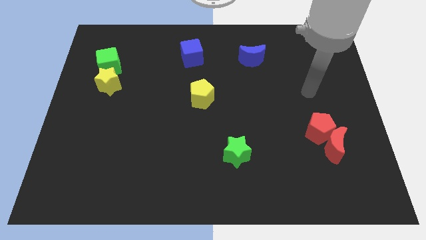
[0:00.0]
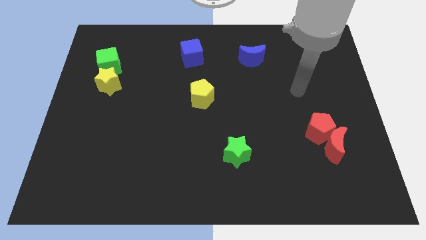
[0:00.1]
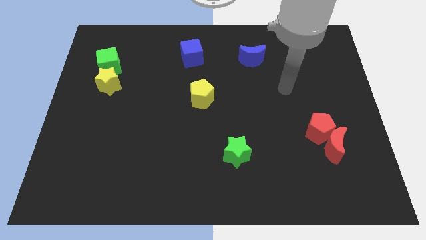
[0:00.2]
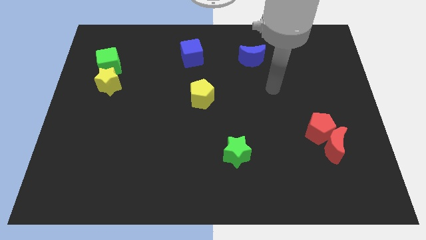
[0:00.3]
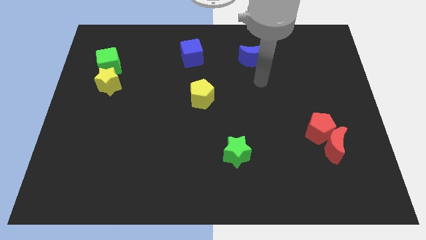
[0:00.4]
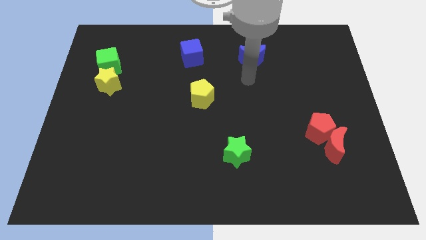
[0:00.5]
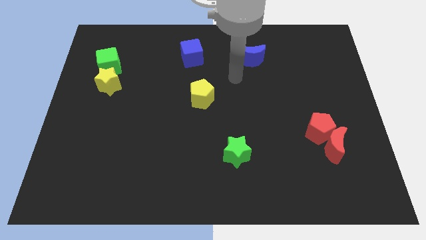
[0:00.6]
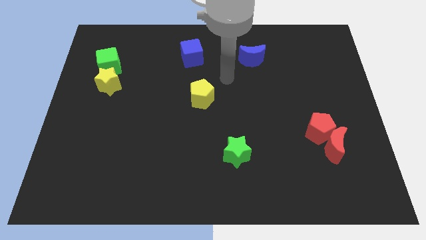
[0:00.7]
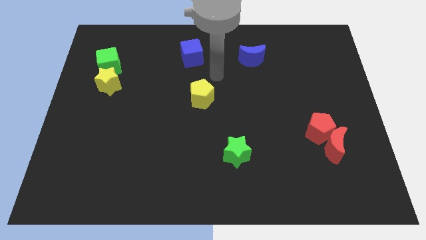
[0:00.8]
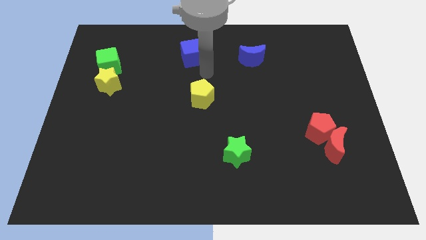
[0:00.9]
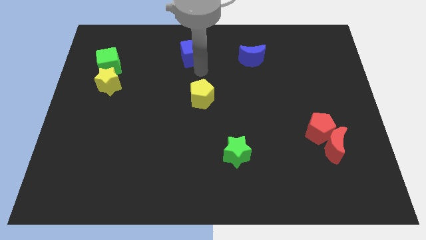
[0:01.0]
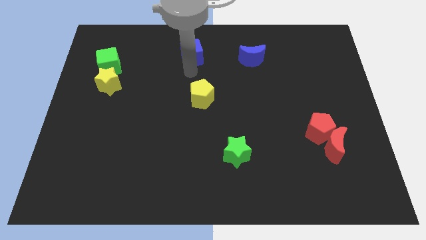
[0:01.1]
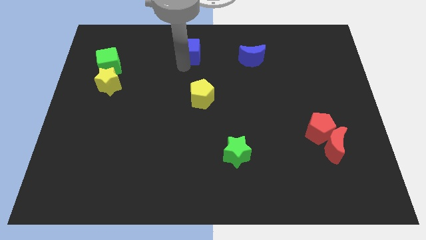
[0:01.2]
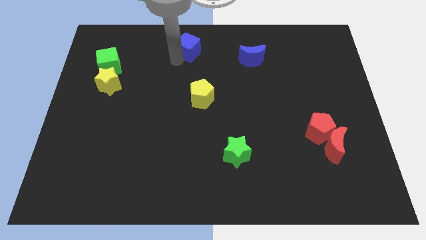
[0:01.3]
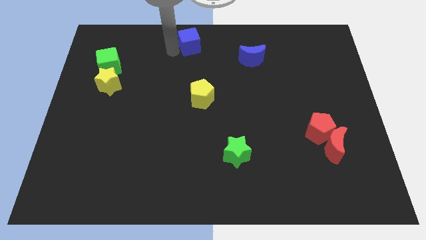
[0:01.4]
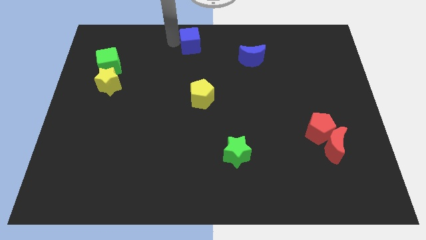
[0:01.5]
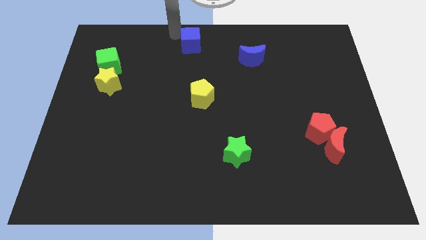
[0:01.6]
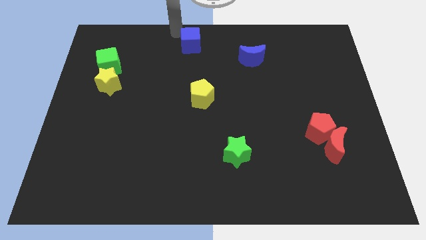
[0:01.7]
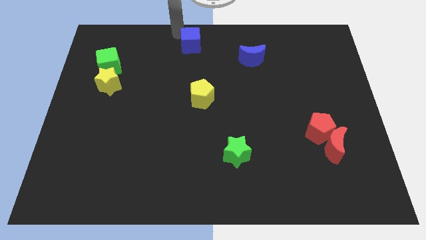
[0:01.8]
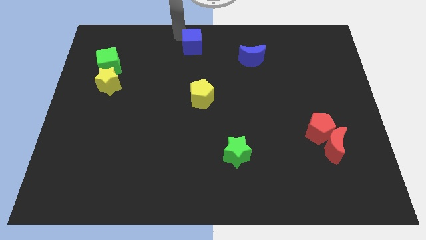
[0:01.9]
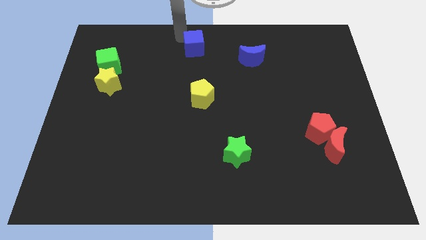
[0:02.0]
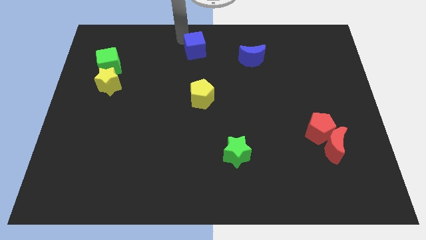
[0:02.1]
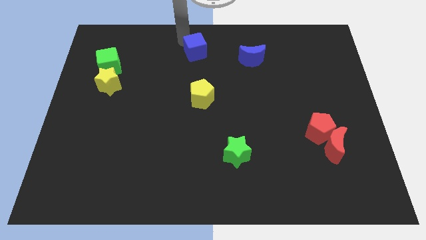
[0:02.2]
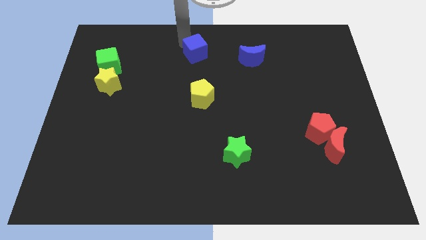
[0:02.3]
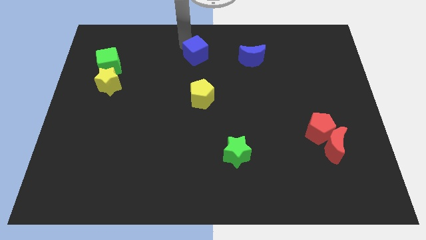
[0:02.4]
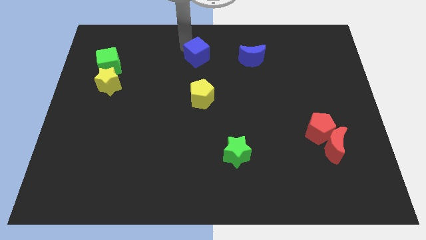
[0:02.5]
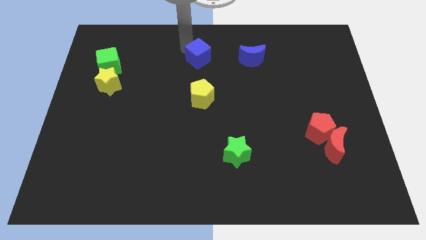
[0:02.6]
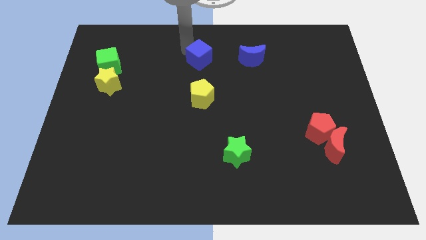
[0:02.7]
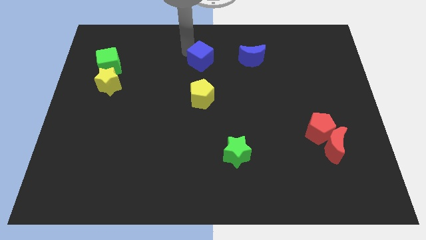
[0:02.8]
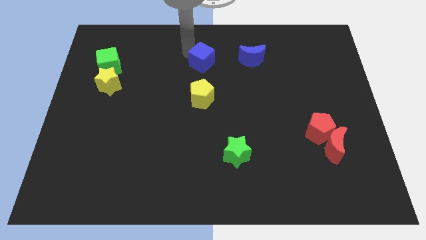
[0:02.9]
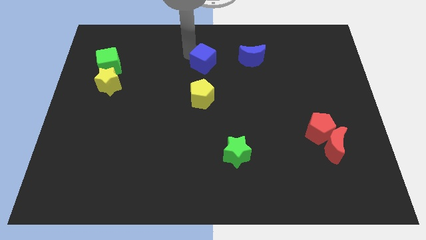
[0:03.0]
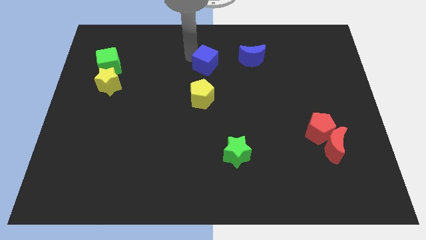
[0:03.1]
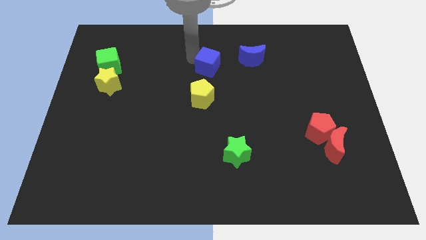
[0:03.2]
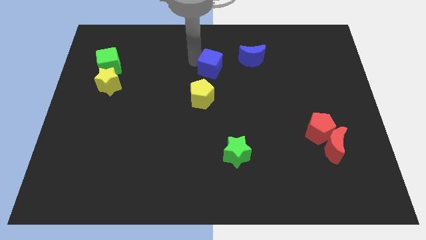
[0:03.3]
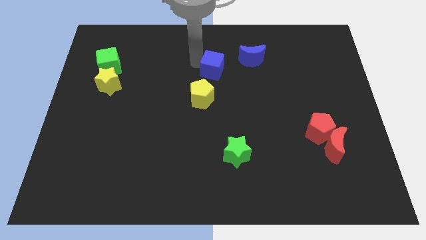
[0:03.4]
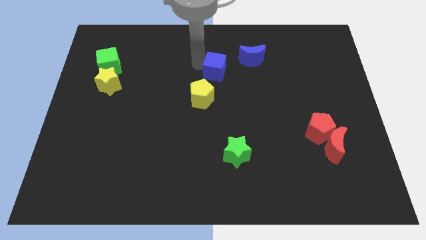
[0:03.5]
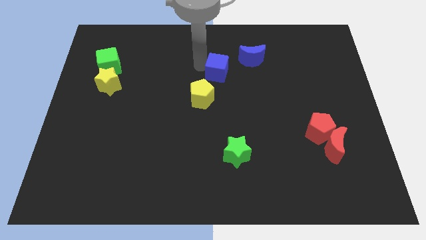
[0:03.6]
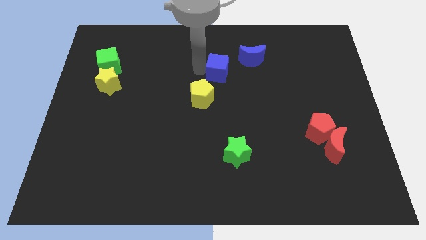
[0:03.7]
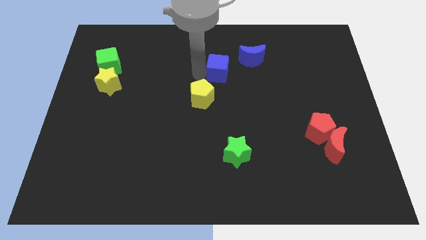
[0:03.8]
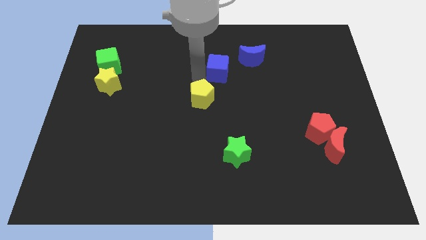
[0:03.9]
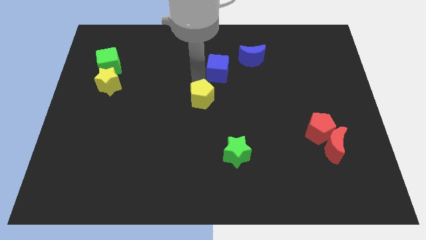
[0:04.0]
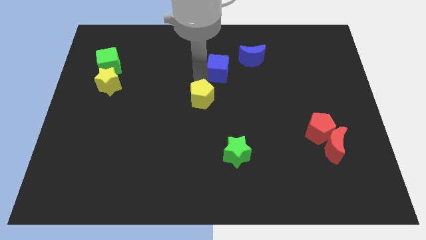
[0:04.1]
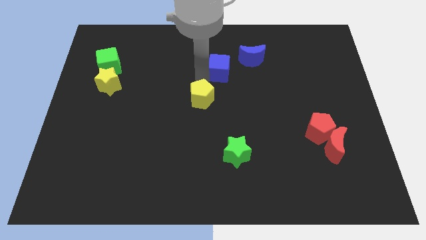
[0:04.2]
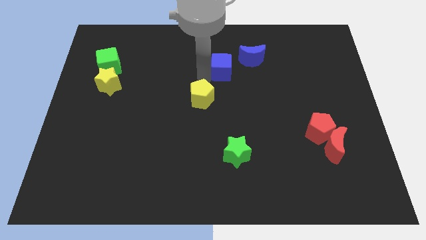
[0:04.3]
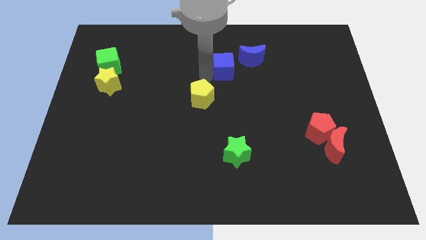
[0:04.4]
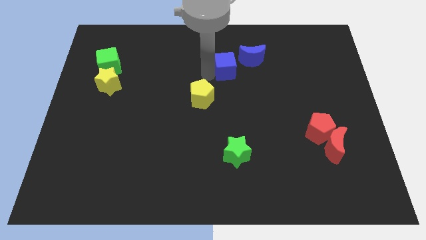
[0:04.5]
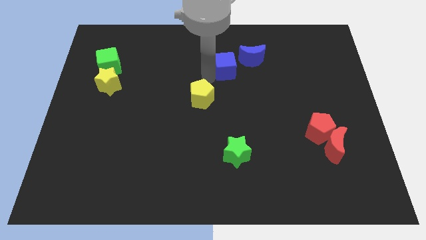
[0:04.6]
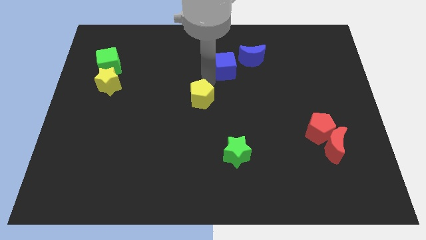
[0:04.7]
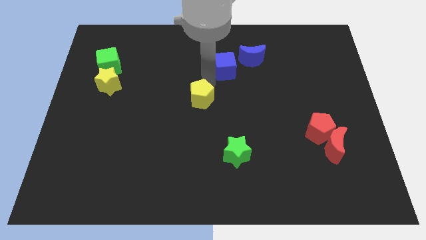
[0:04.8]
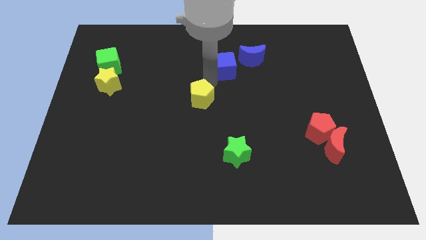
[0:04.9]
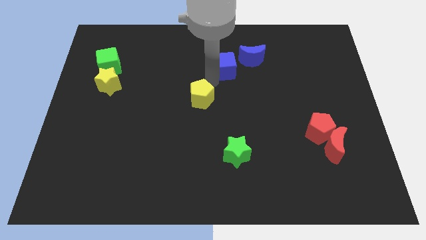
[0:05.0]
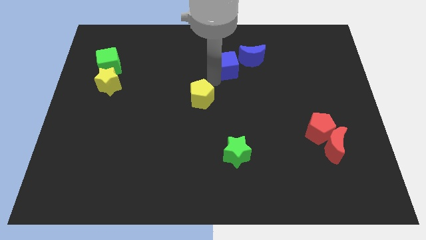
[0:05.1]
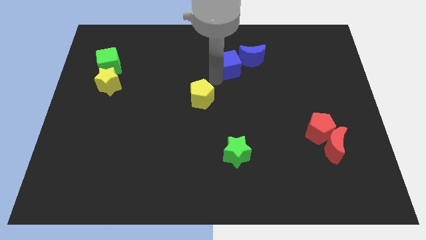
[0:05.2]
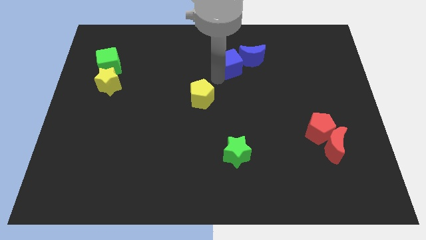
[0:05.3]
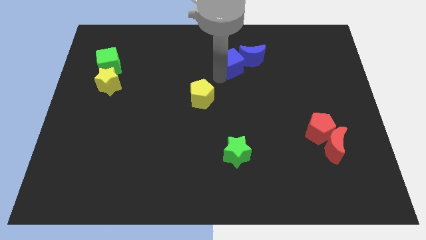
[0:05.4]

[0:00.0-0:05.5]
slide the blue cube next to the blue moon

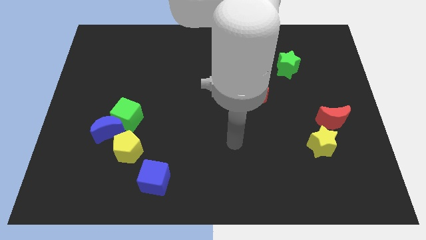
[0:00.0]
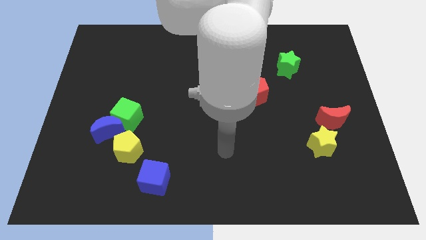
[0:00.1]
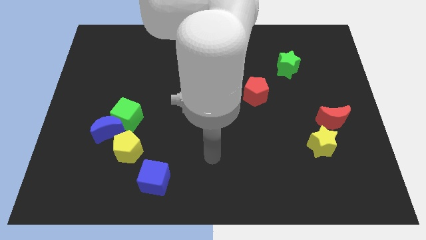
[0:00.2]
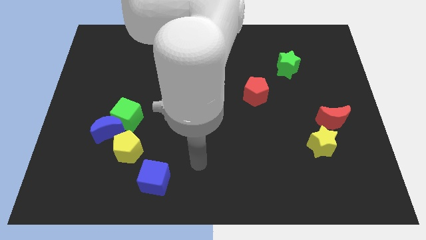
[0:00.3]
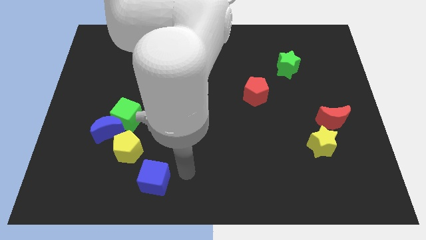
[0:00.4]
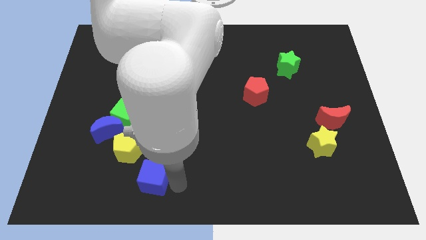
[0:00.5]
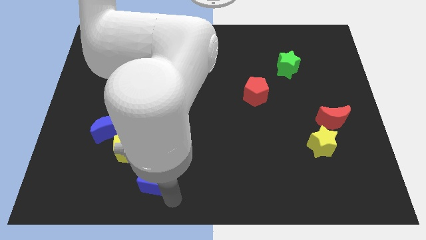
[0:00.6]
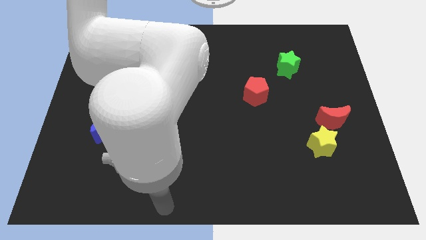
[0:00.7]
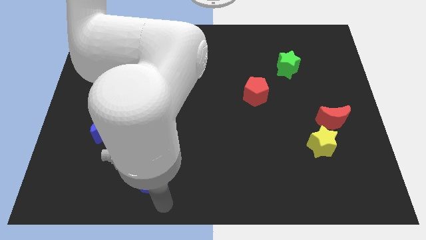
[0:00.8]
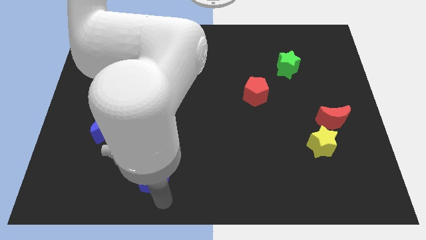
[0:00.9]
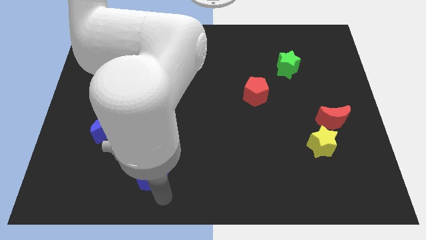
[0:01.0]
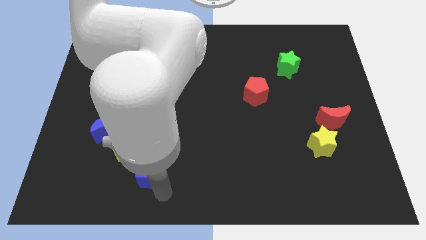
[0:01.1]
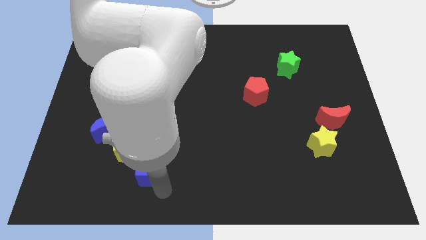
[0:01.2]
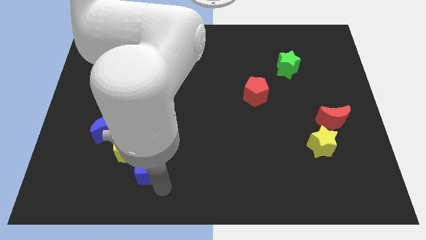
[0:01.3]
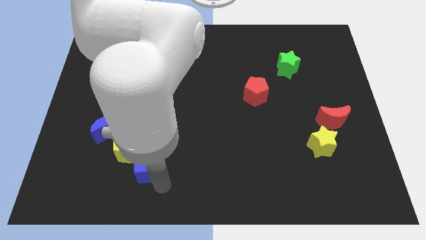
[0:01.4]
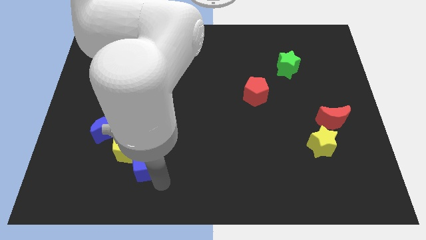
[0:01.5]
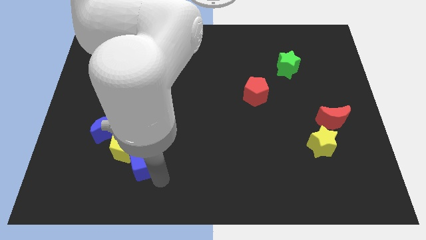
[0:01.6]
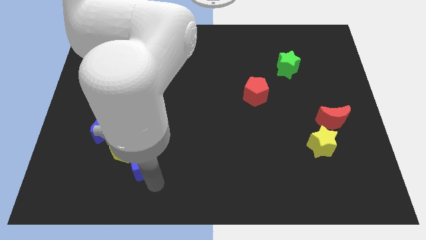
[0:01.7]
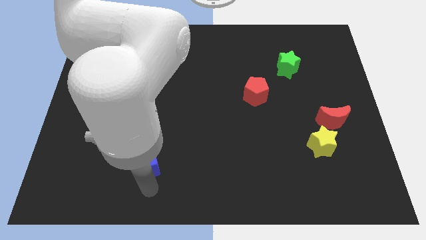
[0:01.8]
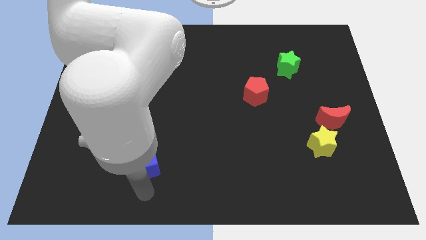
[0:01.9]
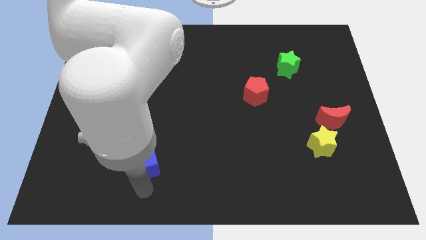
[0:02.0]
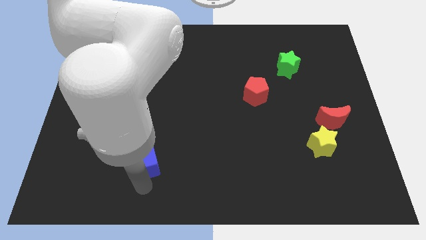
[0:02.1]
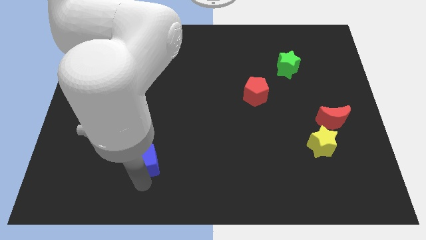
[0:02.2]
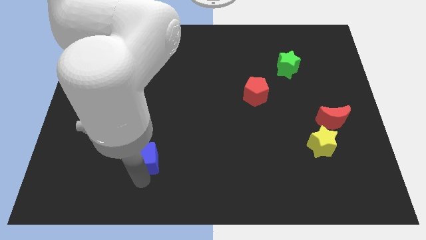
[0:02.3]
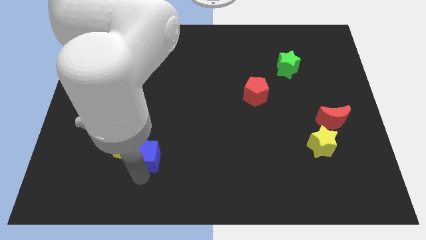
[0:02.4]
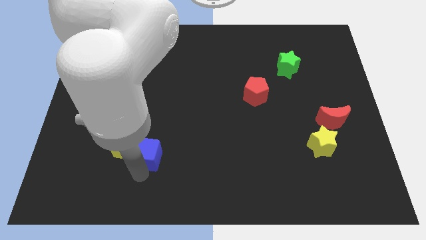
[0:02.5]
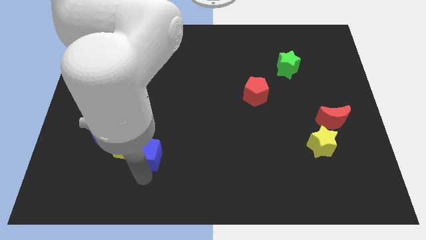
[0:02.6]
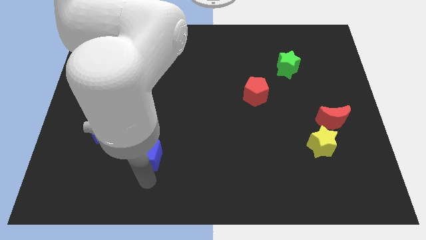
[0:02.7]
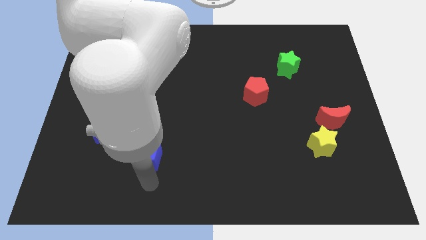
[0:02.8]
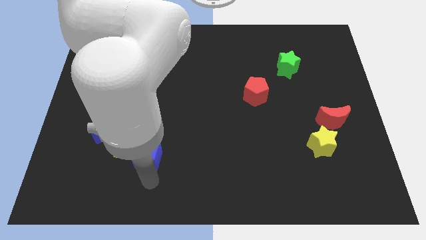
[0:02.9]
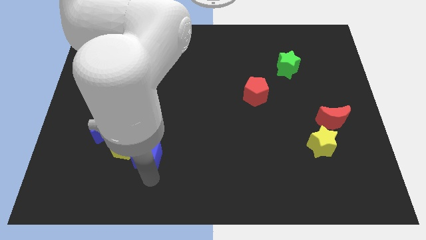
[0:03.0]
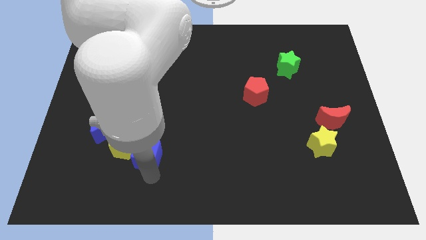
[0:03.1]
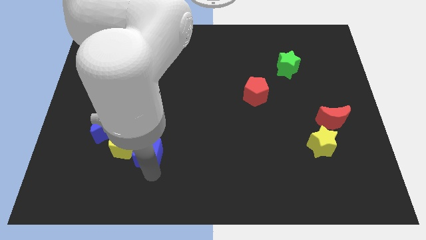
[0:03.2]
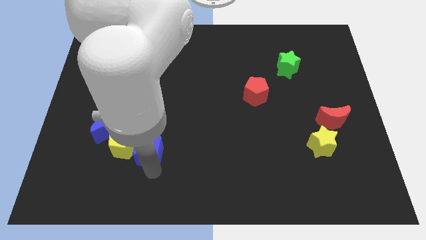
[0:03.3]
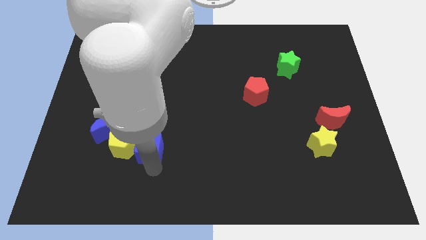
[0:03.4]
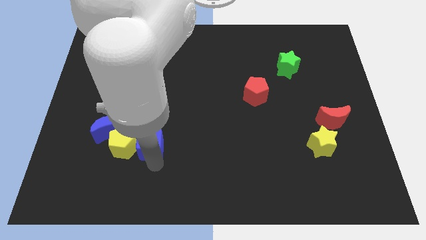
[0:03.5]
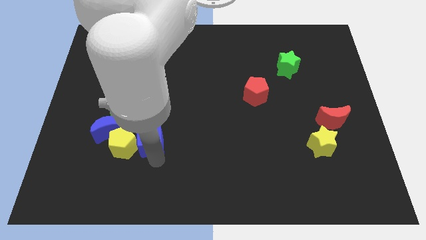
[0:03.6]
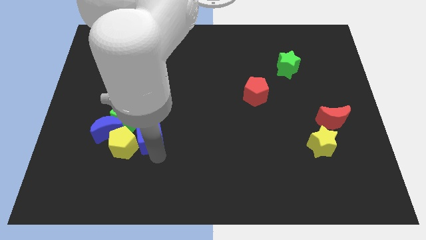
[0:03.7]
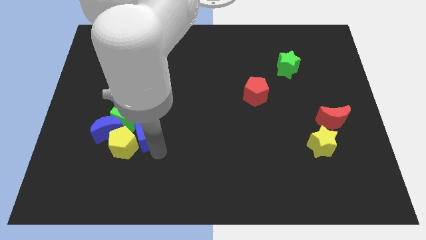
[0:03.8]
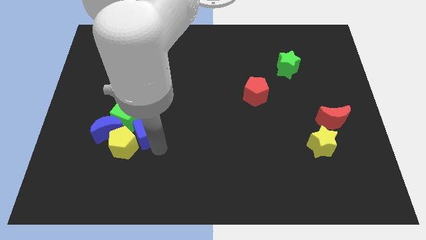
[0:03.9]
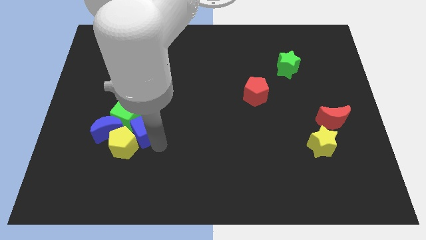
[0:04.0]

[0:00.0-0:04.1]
slide the blue cube close to the green cube
